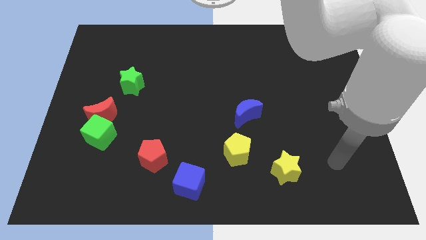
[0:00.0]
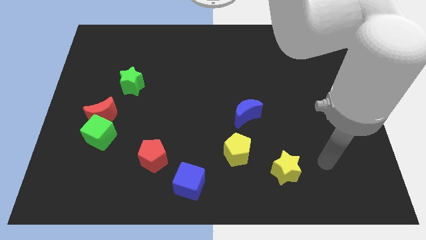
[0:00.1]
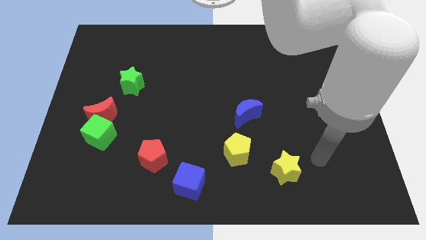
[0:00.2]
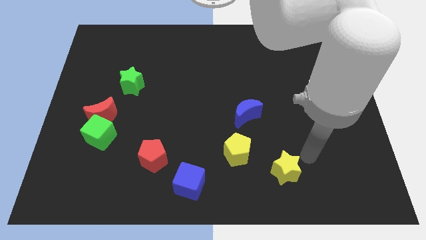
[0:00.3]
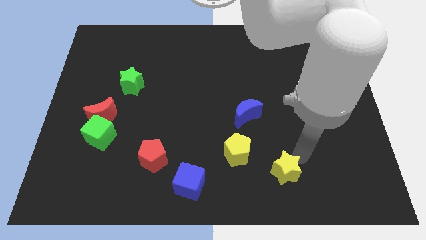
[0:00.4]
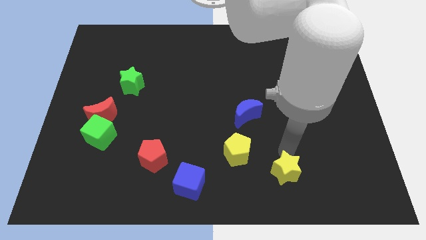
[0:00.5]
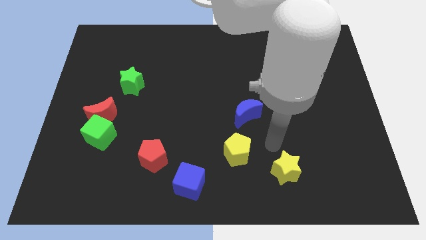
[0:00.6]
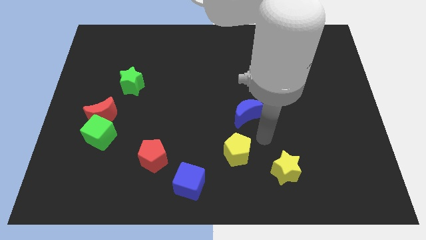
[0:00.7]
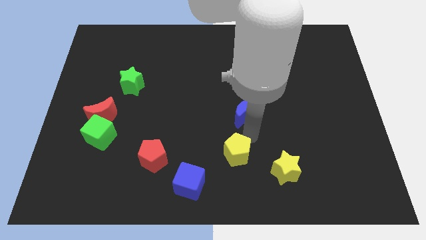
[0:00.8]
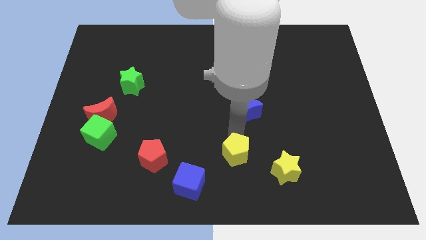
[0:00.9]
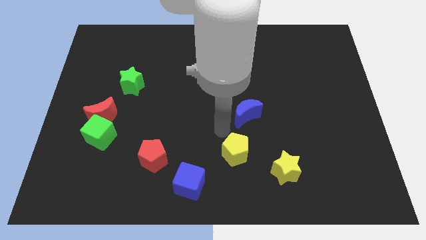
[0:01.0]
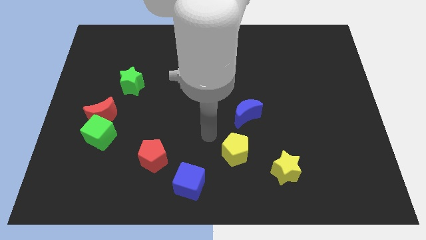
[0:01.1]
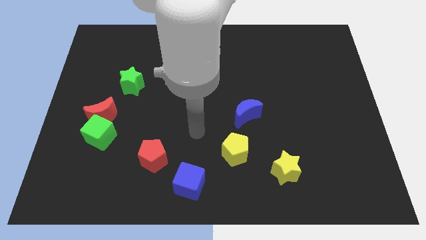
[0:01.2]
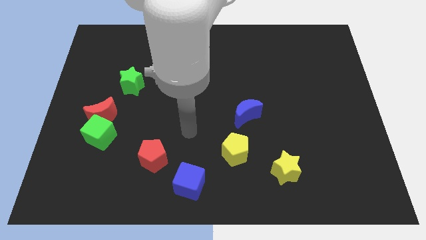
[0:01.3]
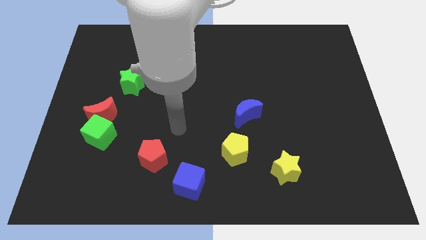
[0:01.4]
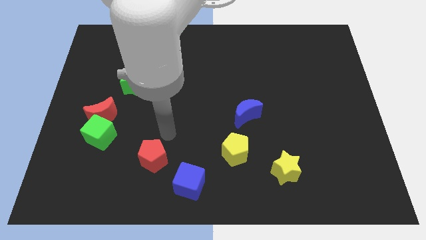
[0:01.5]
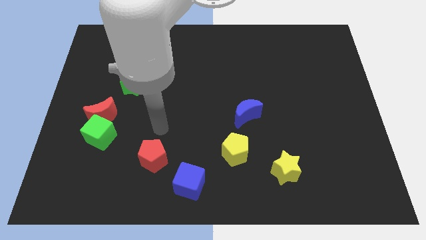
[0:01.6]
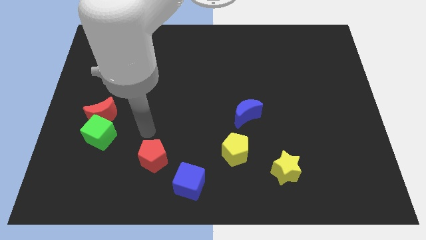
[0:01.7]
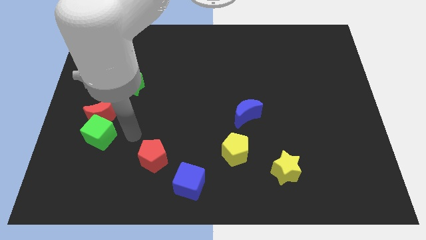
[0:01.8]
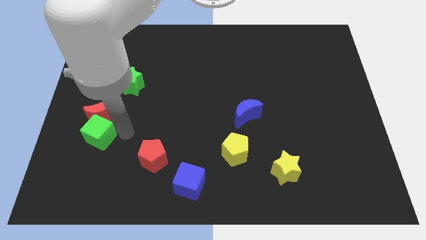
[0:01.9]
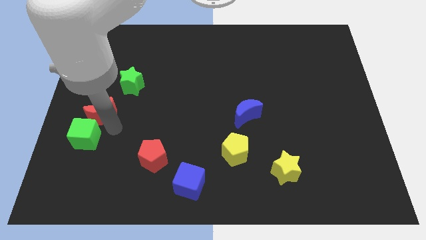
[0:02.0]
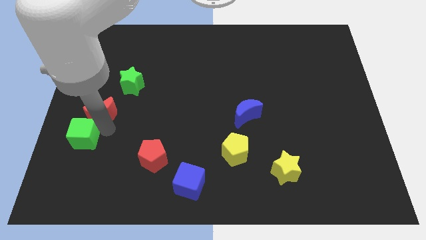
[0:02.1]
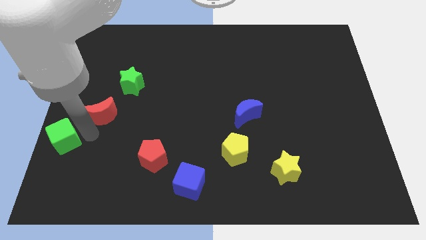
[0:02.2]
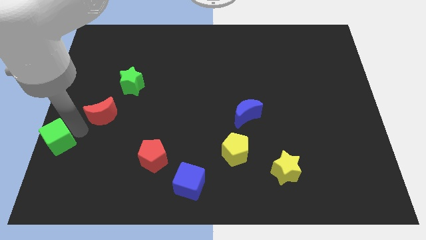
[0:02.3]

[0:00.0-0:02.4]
move the red moon away from the green cube

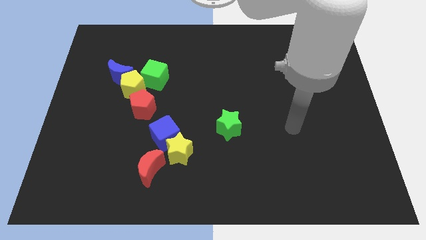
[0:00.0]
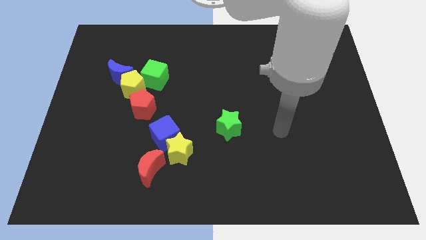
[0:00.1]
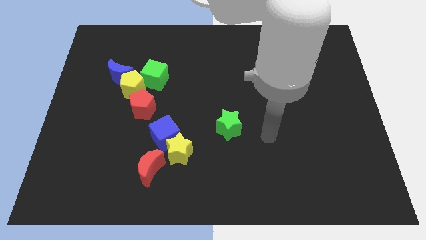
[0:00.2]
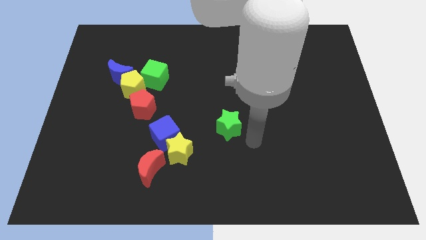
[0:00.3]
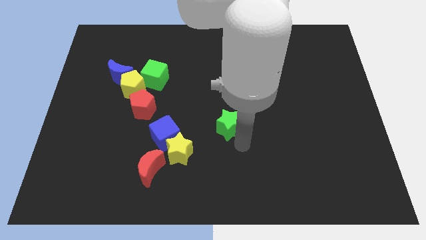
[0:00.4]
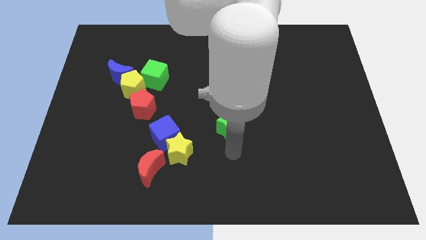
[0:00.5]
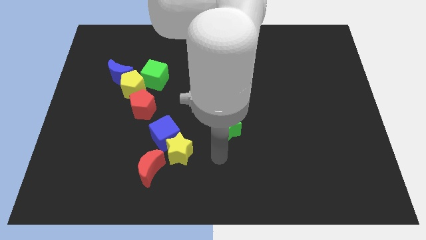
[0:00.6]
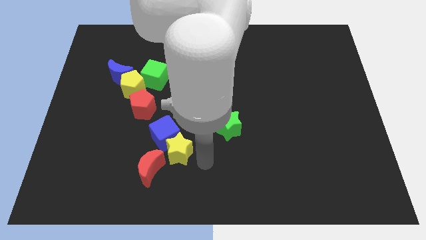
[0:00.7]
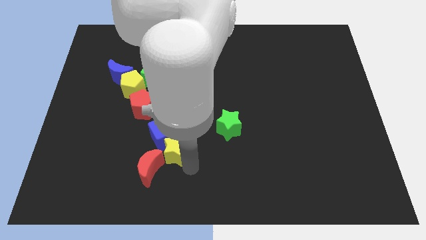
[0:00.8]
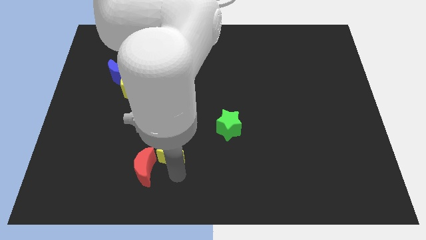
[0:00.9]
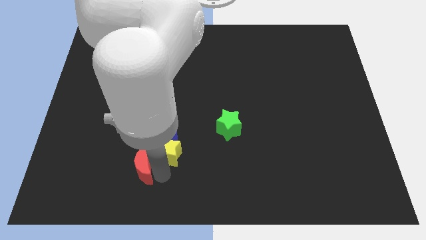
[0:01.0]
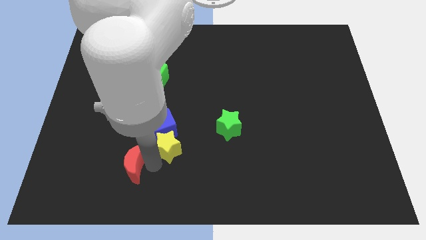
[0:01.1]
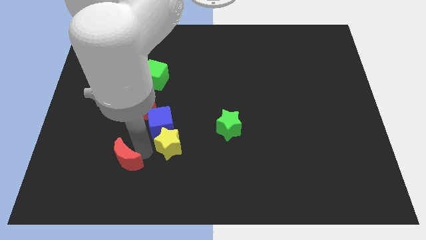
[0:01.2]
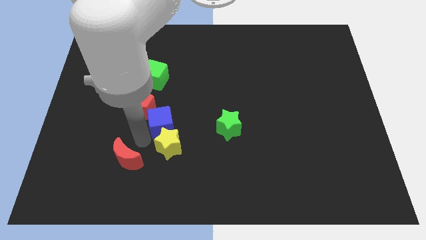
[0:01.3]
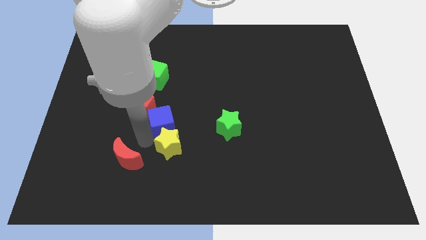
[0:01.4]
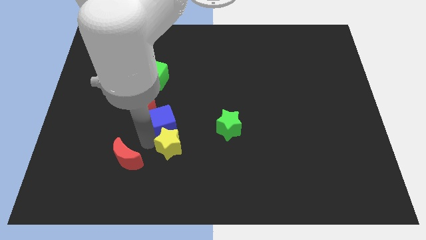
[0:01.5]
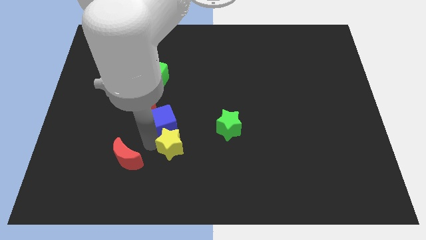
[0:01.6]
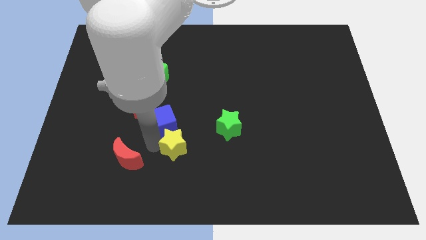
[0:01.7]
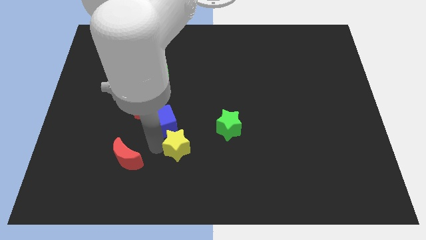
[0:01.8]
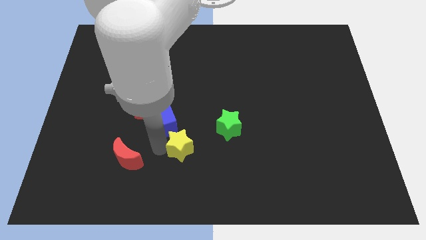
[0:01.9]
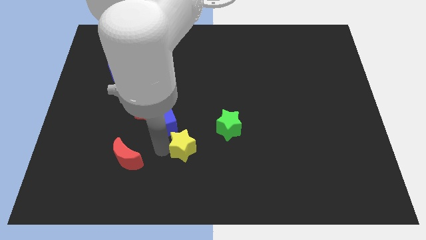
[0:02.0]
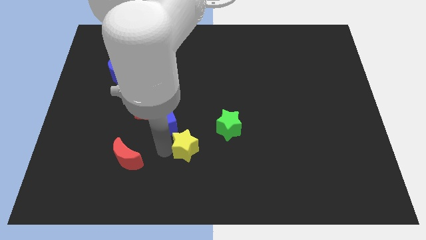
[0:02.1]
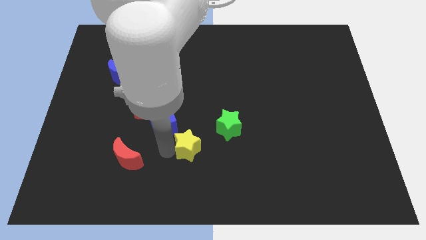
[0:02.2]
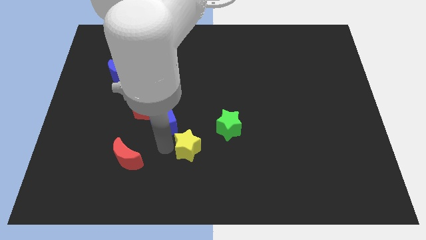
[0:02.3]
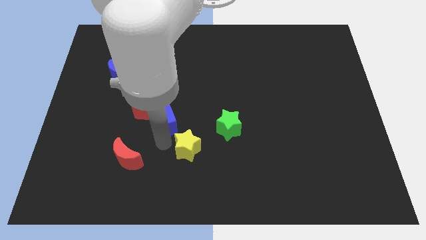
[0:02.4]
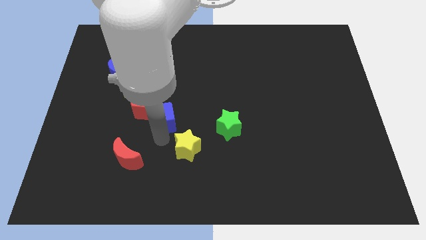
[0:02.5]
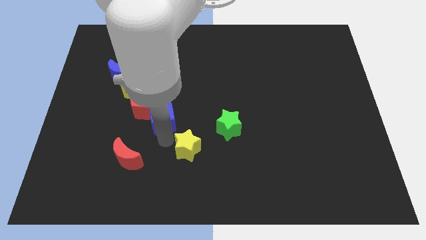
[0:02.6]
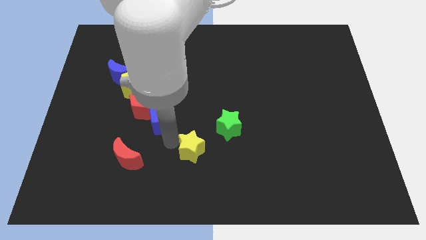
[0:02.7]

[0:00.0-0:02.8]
move the yellow star away from the blue cube and red moon

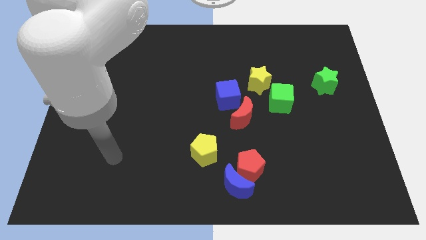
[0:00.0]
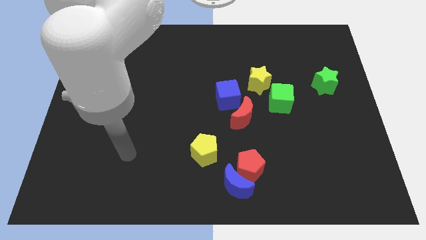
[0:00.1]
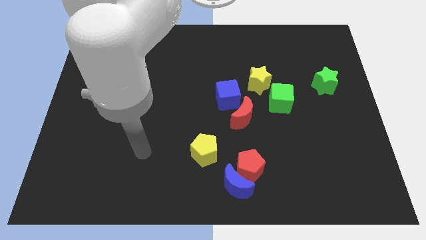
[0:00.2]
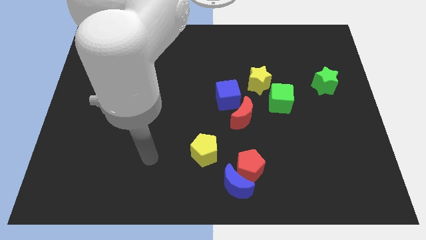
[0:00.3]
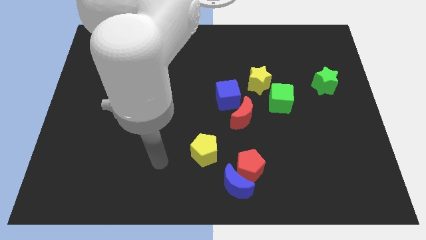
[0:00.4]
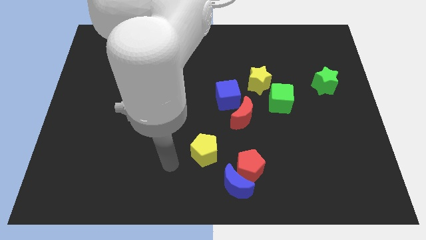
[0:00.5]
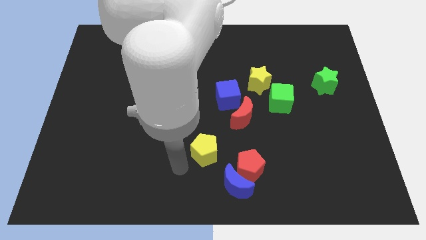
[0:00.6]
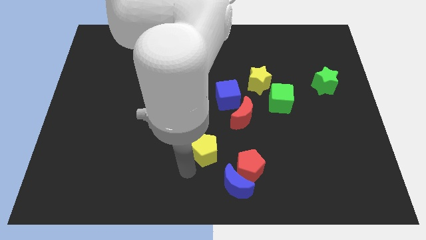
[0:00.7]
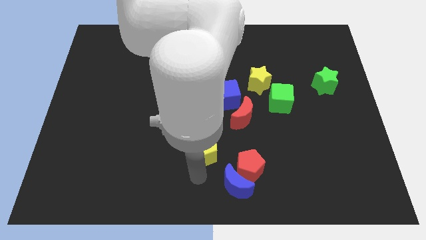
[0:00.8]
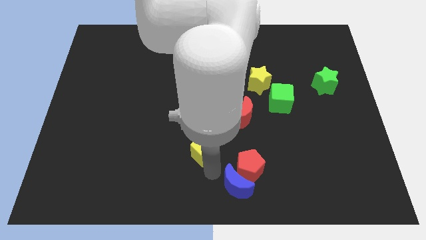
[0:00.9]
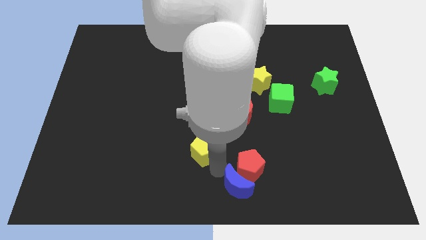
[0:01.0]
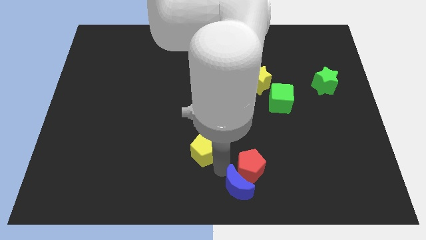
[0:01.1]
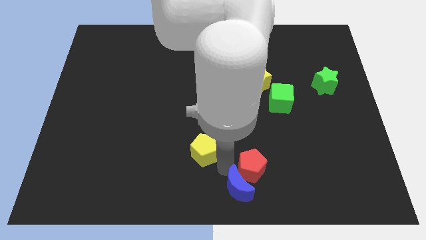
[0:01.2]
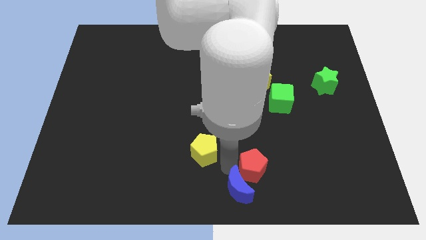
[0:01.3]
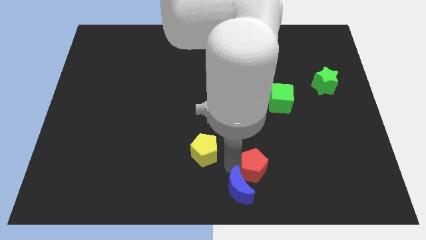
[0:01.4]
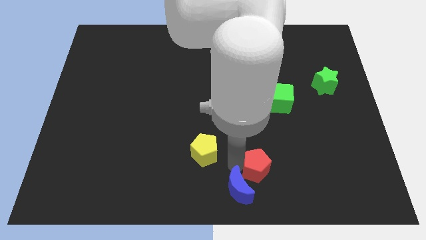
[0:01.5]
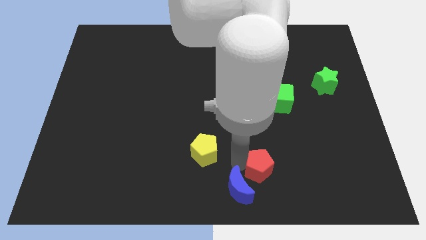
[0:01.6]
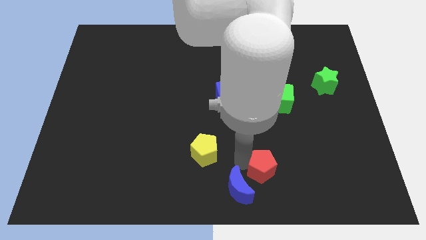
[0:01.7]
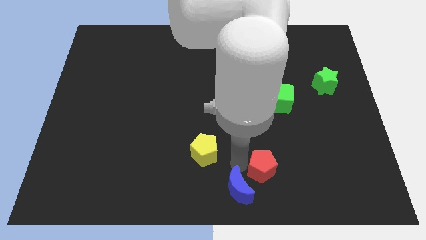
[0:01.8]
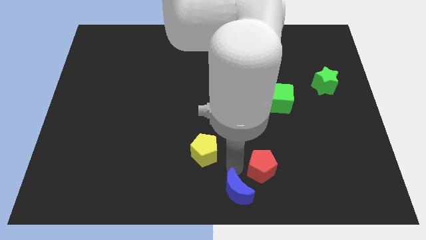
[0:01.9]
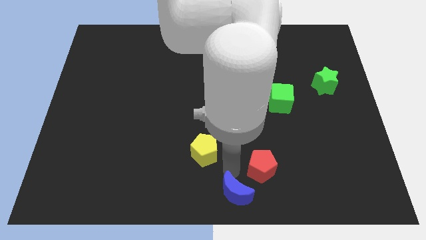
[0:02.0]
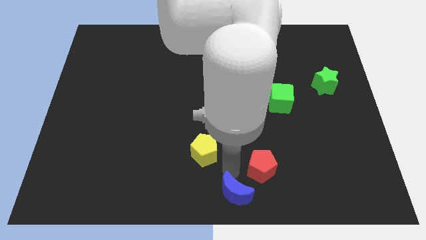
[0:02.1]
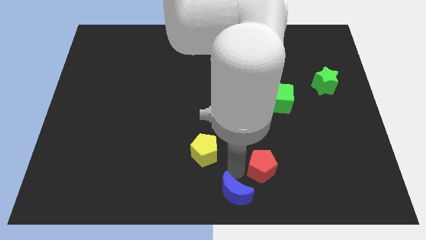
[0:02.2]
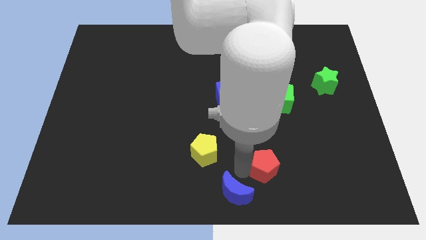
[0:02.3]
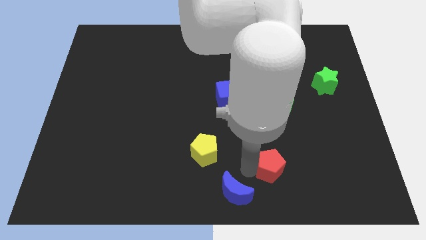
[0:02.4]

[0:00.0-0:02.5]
move the red pentagon away from the blue moon and yellow pentagon

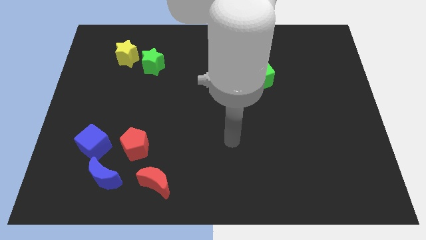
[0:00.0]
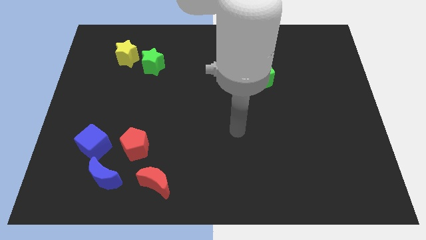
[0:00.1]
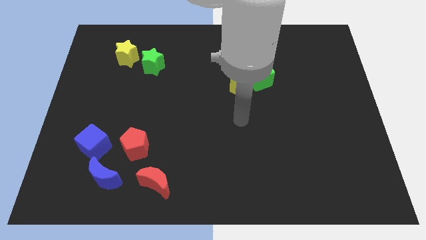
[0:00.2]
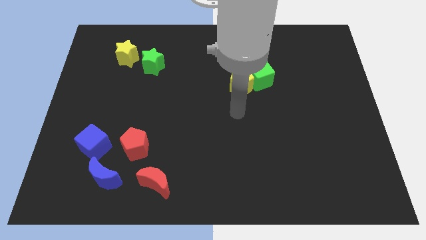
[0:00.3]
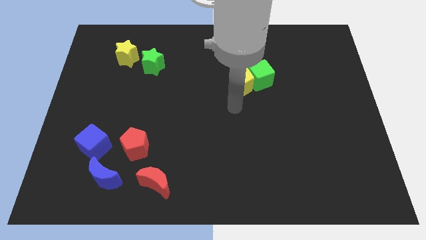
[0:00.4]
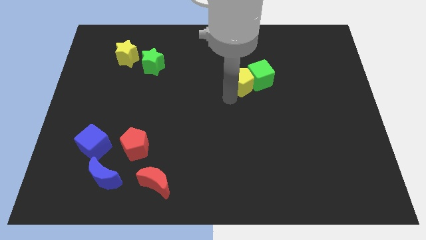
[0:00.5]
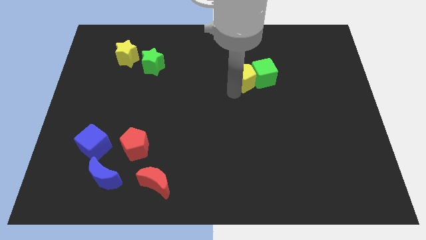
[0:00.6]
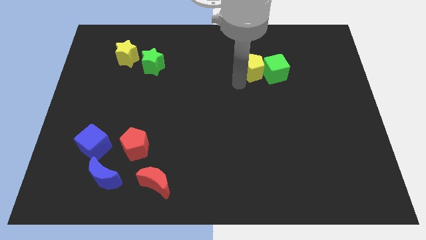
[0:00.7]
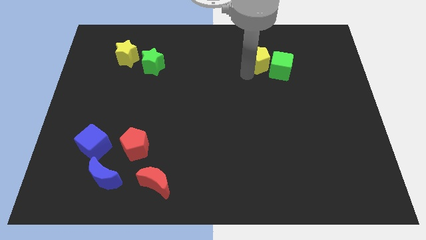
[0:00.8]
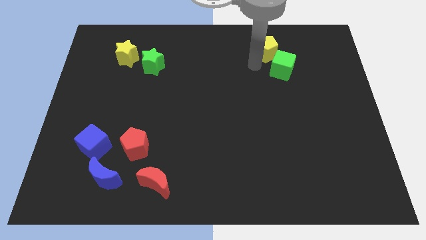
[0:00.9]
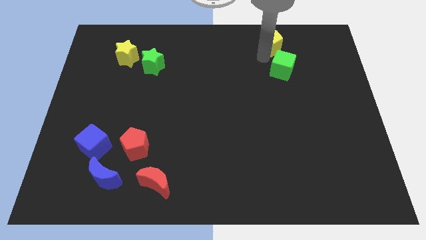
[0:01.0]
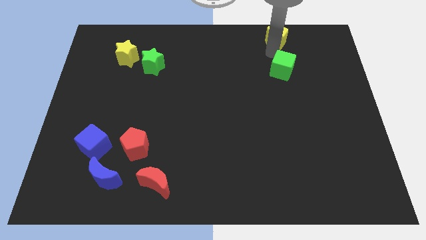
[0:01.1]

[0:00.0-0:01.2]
pull the green cube apart from the yellow pentagon

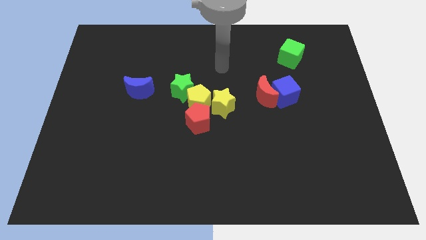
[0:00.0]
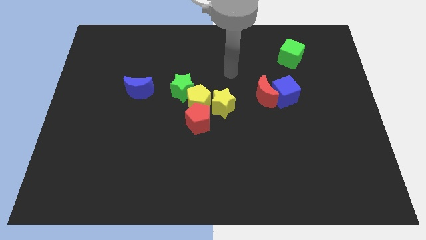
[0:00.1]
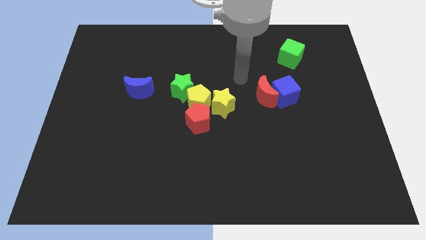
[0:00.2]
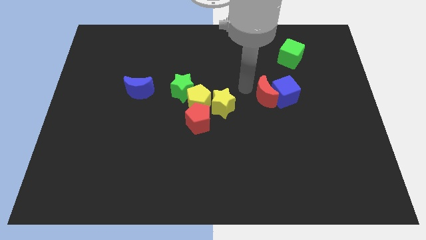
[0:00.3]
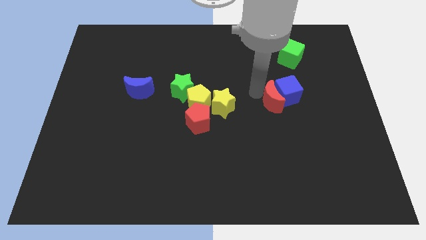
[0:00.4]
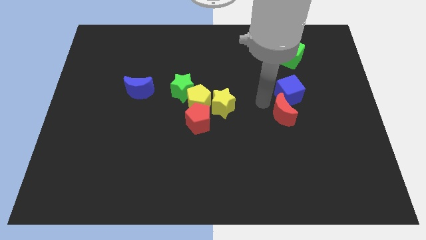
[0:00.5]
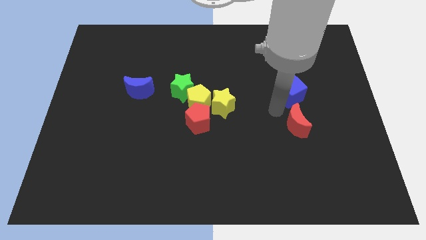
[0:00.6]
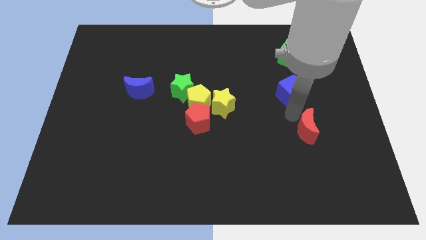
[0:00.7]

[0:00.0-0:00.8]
separate the blue cube from the red moon
